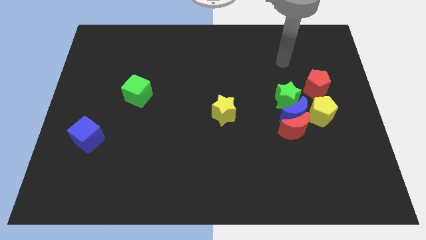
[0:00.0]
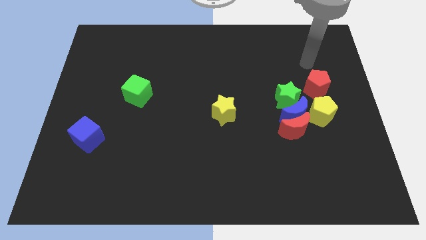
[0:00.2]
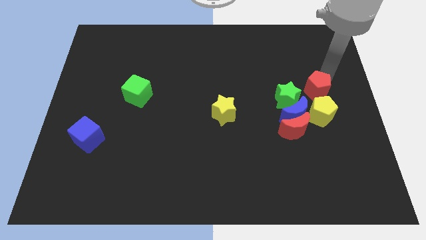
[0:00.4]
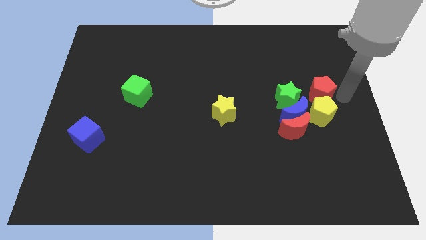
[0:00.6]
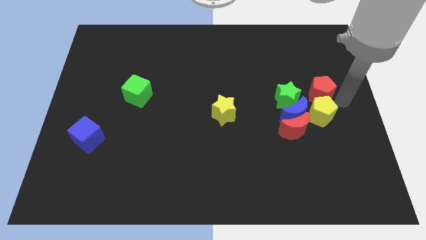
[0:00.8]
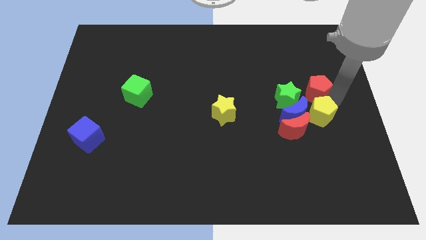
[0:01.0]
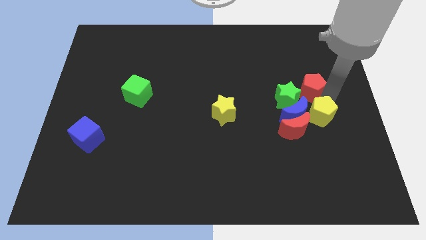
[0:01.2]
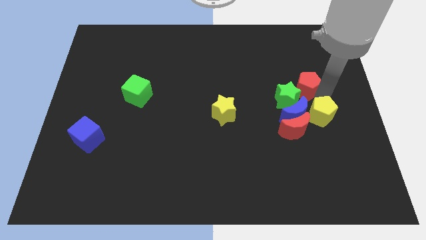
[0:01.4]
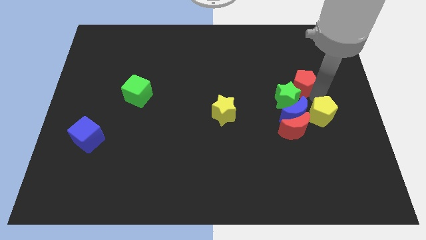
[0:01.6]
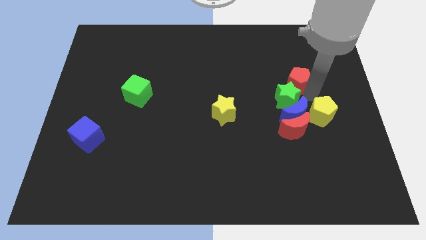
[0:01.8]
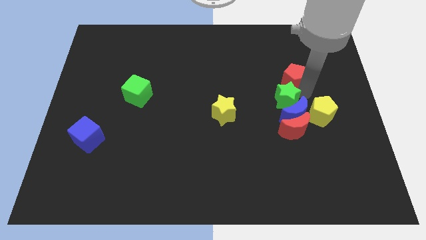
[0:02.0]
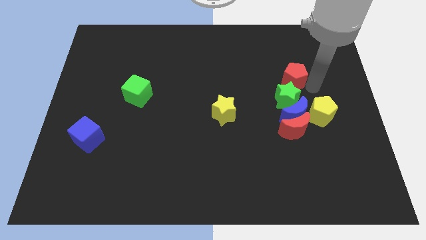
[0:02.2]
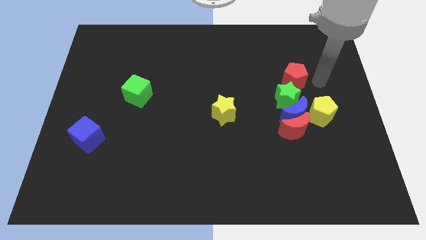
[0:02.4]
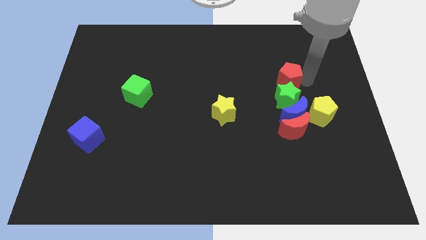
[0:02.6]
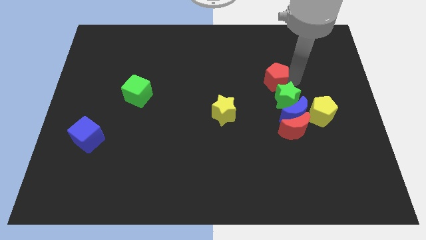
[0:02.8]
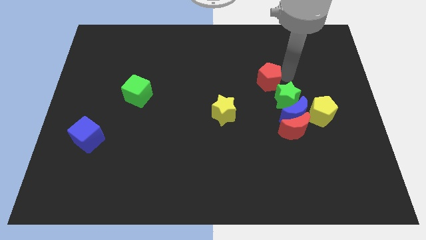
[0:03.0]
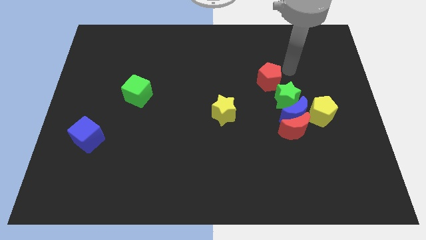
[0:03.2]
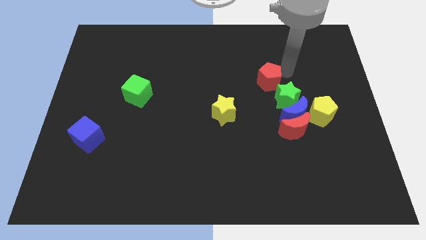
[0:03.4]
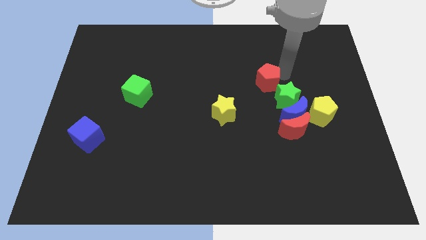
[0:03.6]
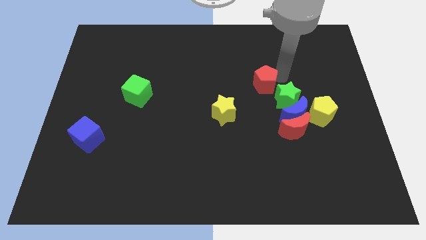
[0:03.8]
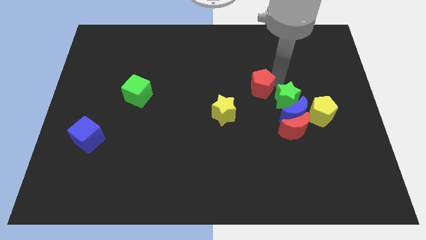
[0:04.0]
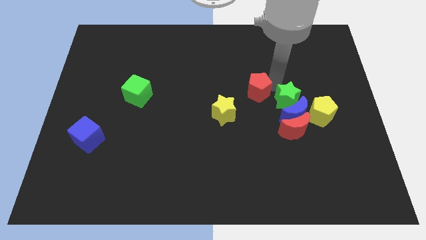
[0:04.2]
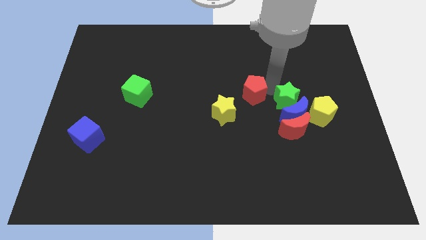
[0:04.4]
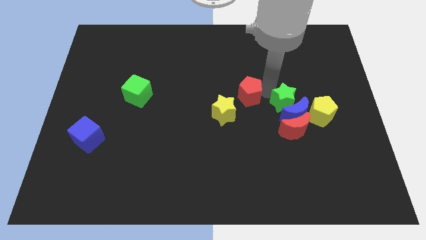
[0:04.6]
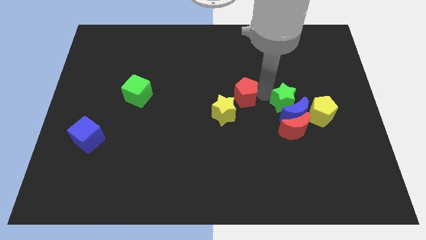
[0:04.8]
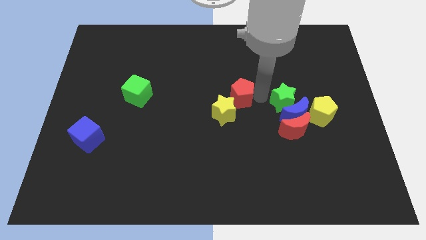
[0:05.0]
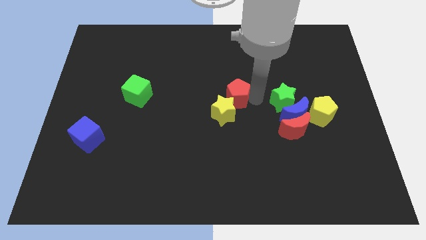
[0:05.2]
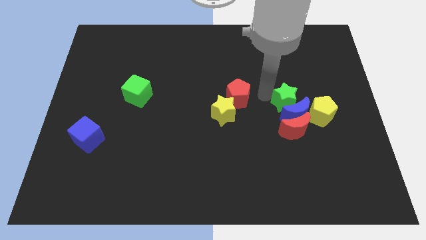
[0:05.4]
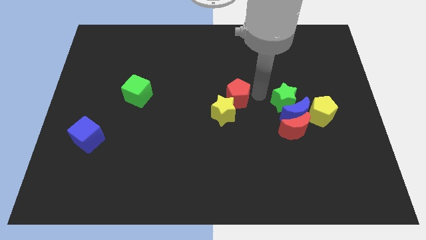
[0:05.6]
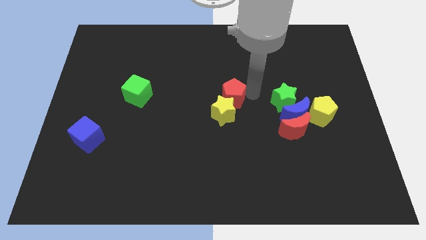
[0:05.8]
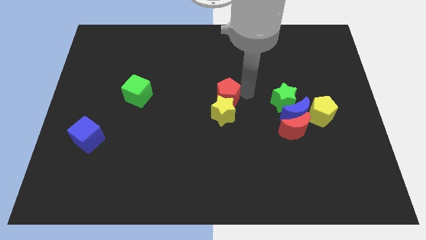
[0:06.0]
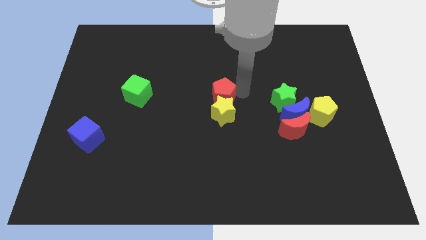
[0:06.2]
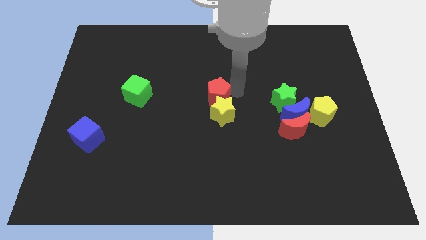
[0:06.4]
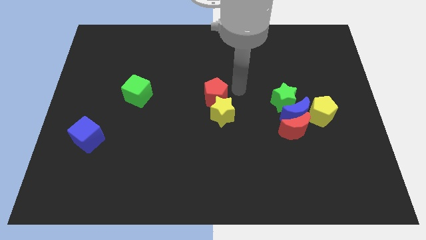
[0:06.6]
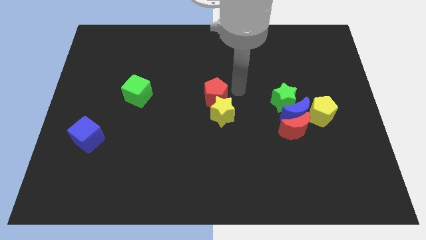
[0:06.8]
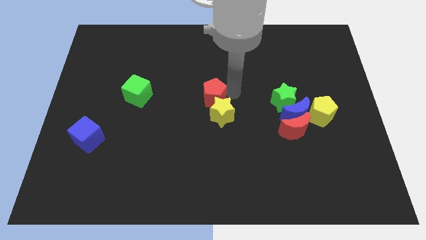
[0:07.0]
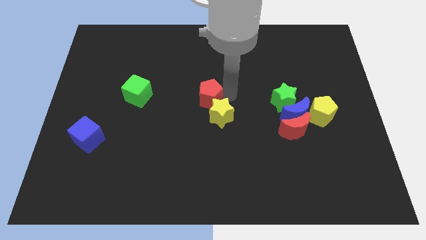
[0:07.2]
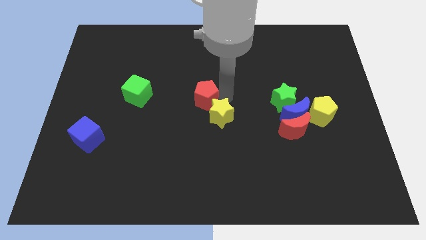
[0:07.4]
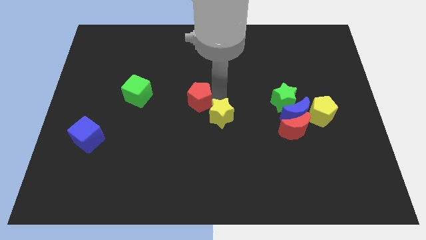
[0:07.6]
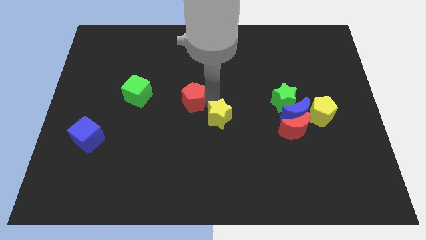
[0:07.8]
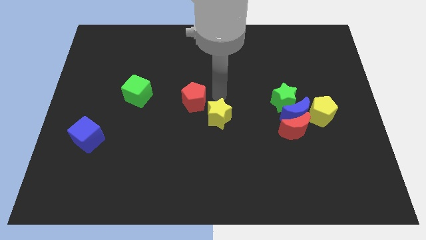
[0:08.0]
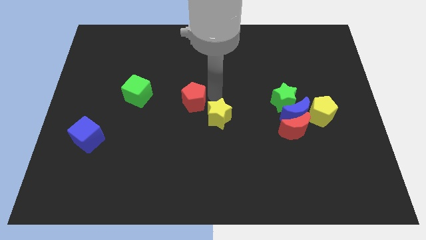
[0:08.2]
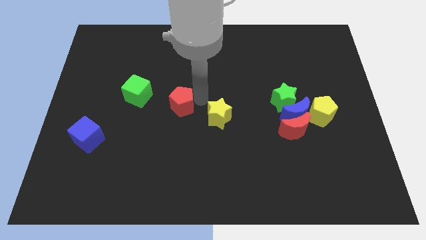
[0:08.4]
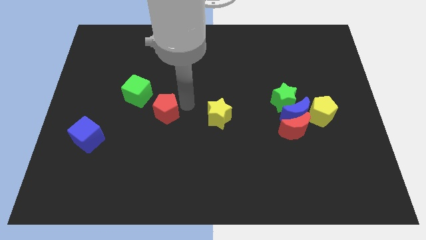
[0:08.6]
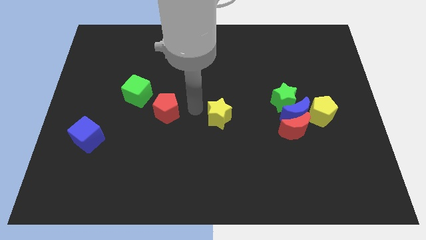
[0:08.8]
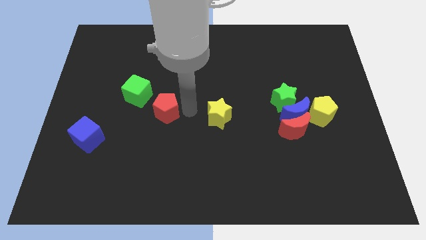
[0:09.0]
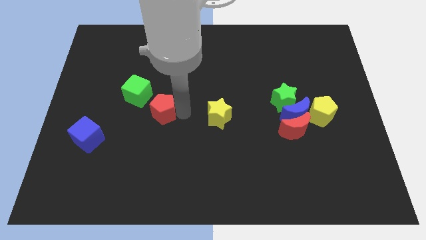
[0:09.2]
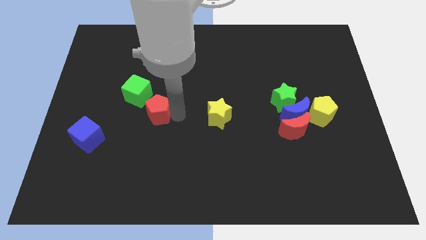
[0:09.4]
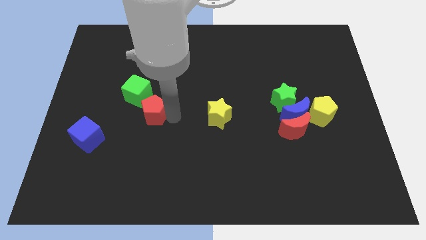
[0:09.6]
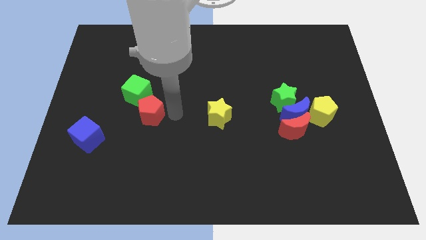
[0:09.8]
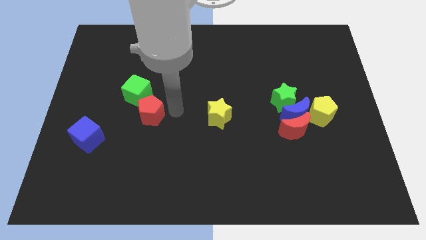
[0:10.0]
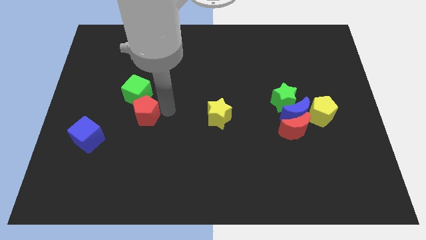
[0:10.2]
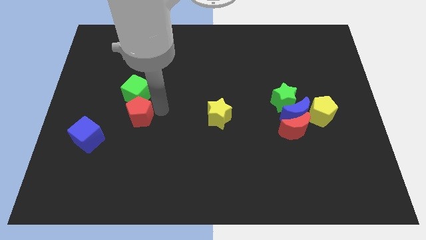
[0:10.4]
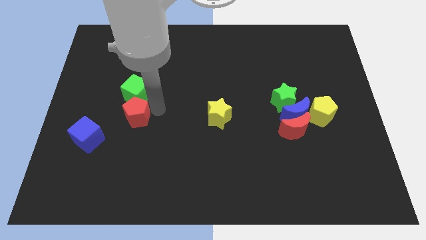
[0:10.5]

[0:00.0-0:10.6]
put the red pentagon to the top right of the blue cube

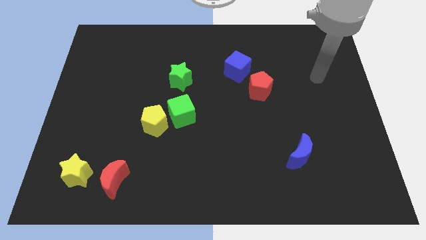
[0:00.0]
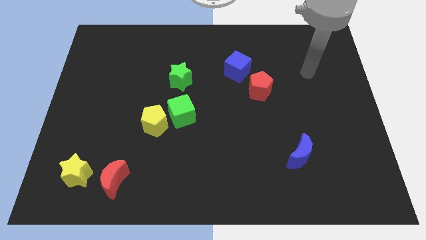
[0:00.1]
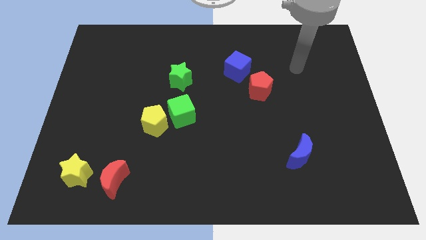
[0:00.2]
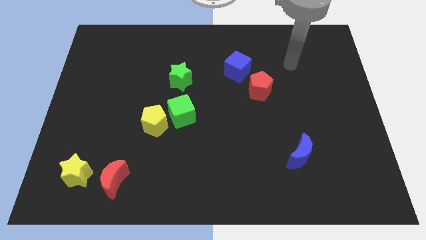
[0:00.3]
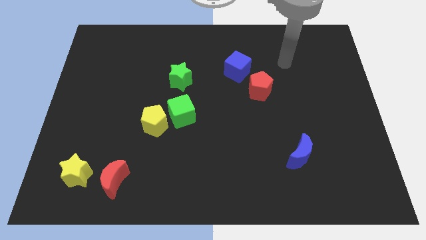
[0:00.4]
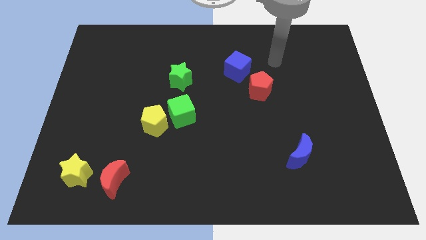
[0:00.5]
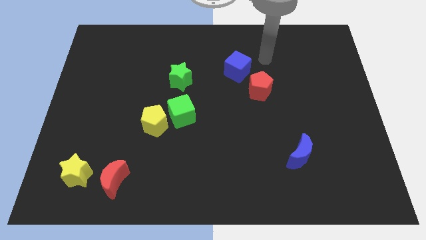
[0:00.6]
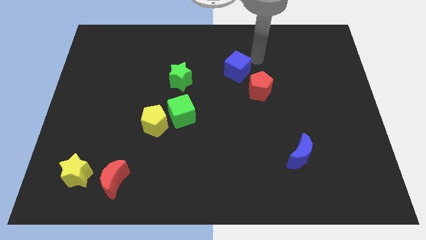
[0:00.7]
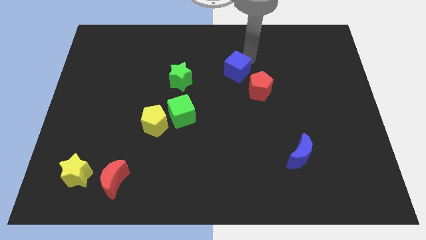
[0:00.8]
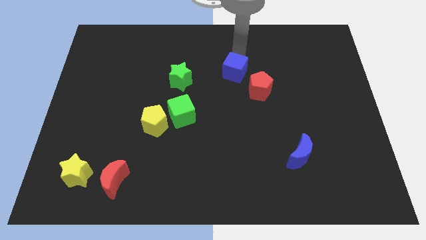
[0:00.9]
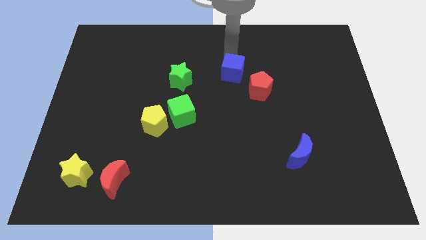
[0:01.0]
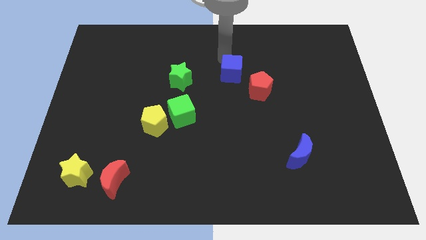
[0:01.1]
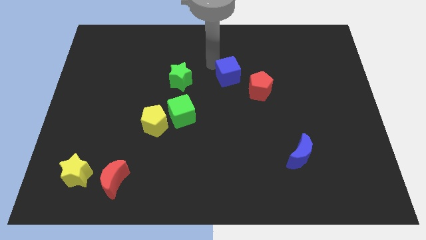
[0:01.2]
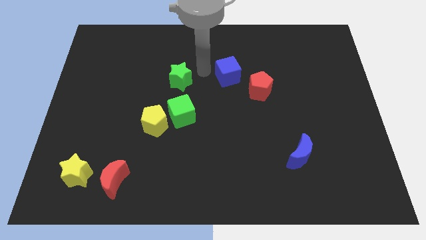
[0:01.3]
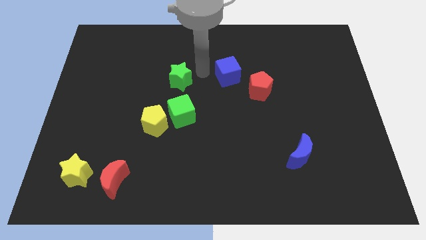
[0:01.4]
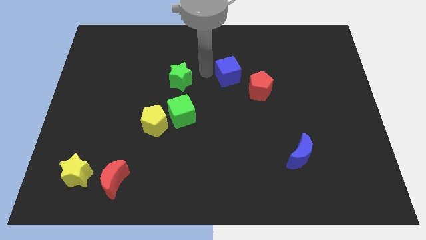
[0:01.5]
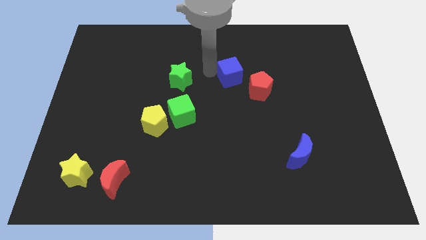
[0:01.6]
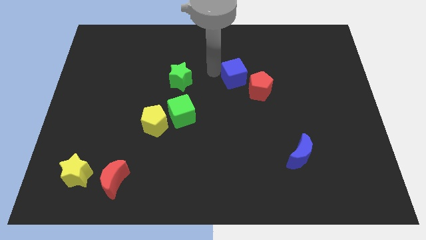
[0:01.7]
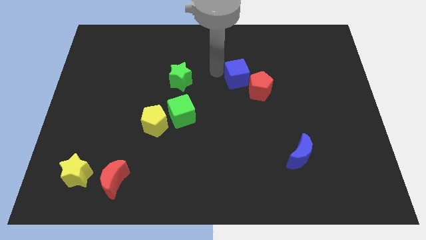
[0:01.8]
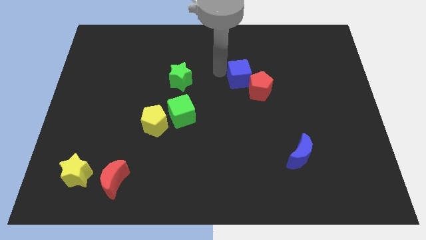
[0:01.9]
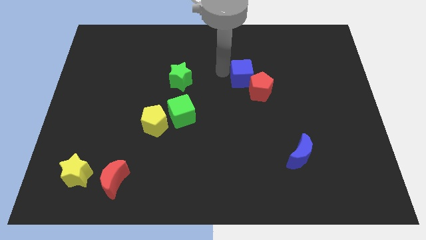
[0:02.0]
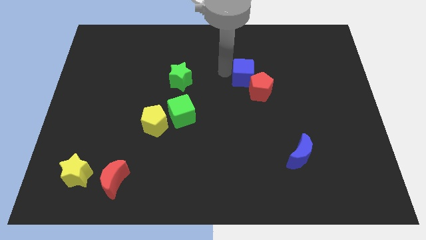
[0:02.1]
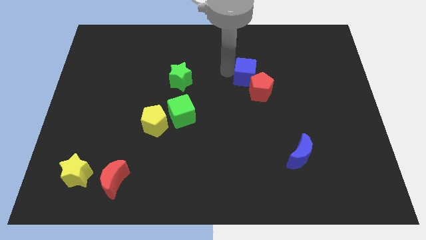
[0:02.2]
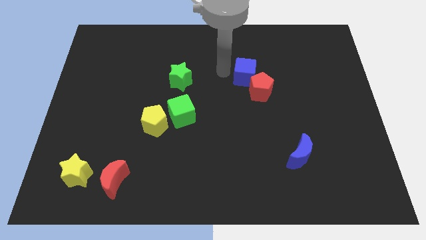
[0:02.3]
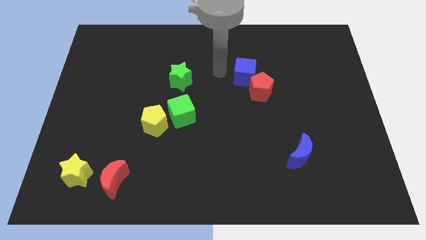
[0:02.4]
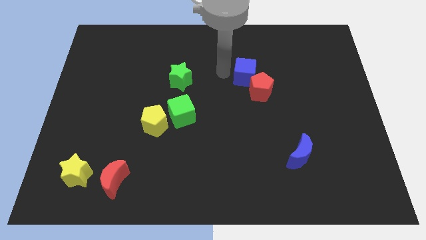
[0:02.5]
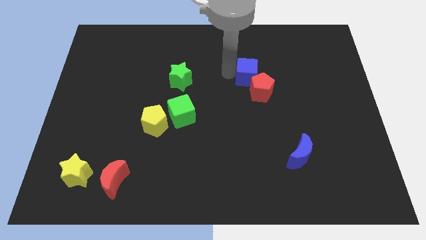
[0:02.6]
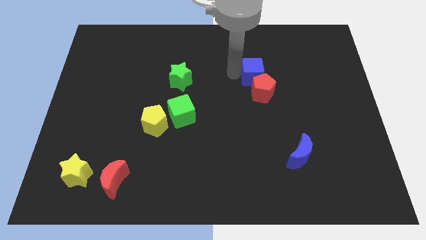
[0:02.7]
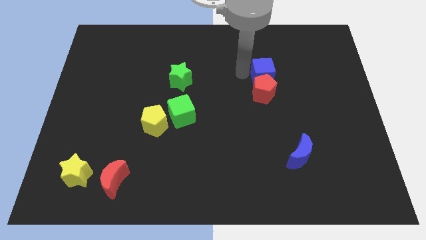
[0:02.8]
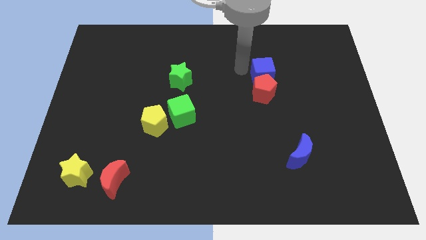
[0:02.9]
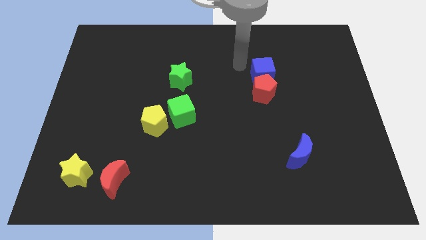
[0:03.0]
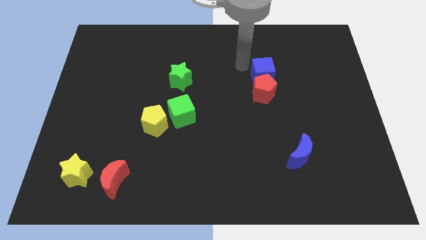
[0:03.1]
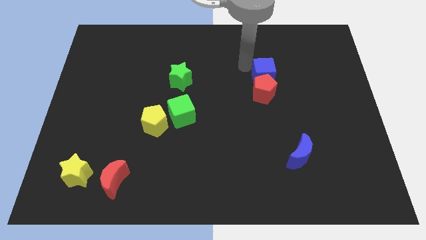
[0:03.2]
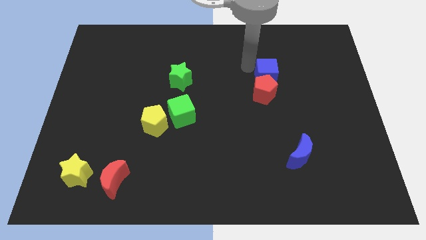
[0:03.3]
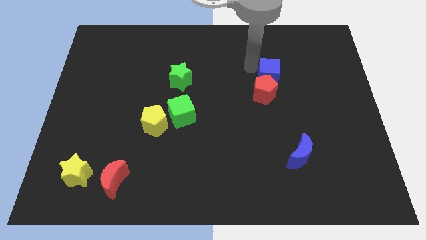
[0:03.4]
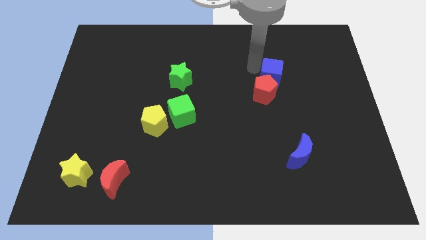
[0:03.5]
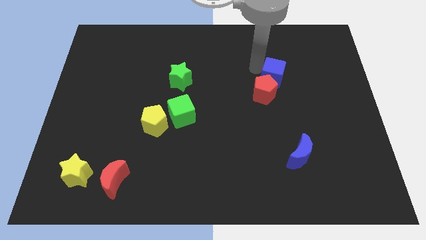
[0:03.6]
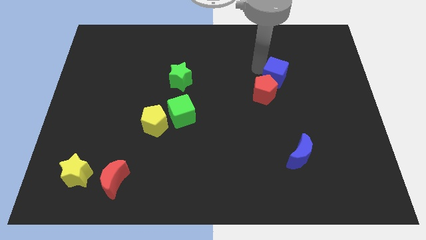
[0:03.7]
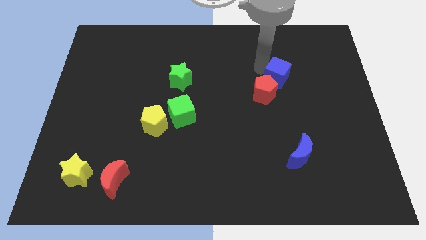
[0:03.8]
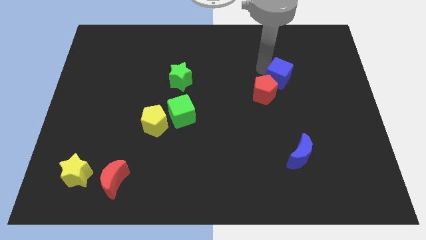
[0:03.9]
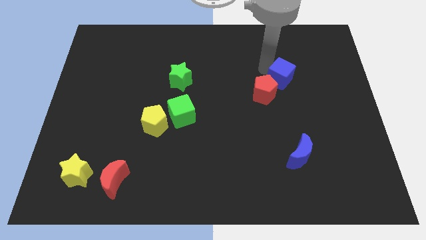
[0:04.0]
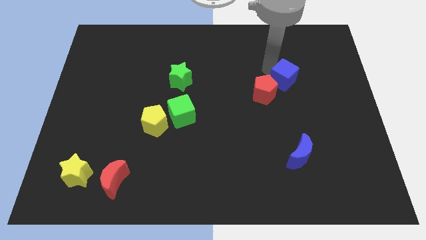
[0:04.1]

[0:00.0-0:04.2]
put the blue cube just right of the red pentagon
